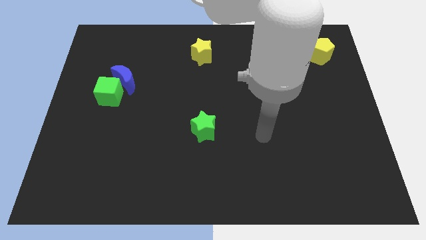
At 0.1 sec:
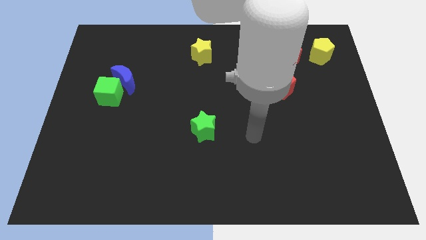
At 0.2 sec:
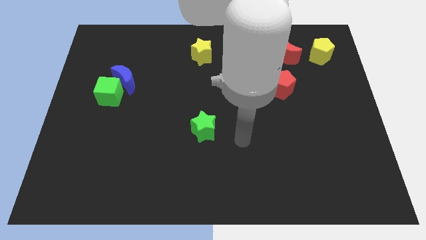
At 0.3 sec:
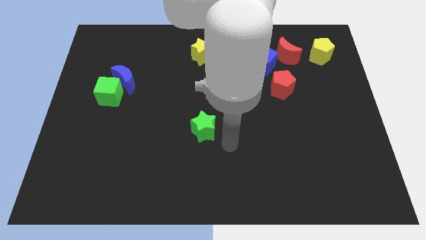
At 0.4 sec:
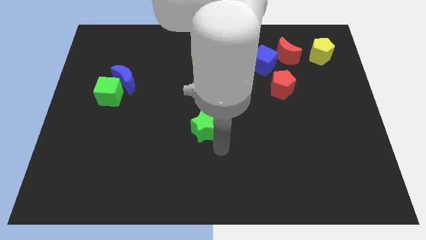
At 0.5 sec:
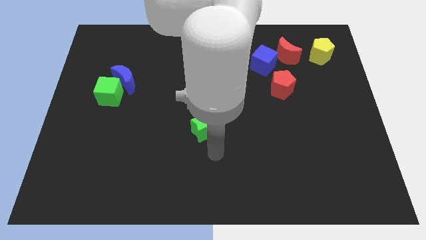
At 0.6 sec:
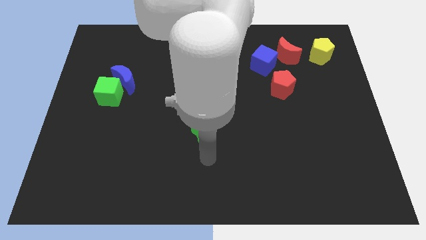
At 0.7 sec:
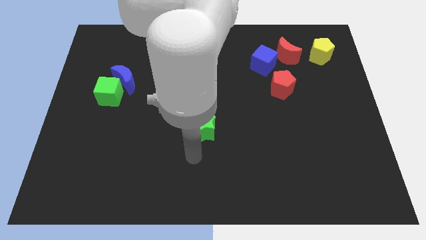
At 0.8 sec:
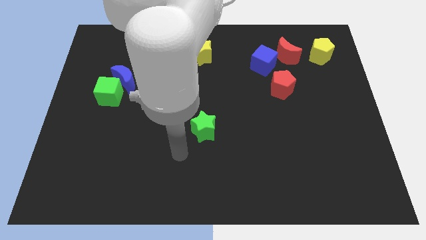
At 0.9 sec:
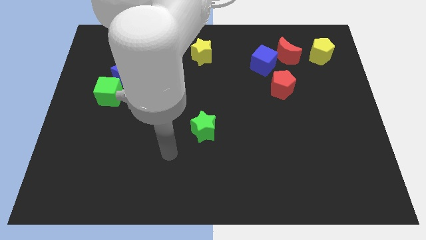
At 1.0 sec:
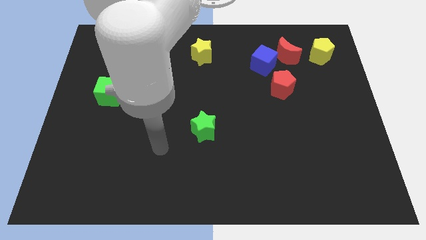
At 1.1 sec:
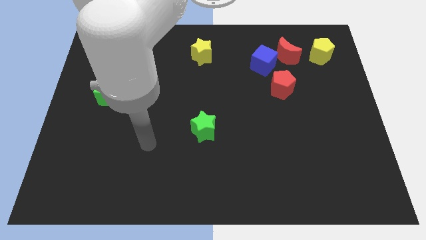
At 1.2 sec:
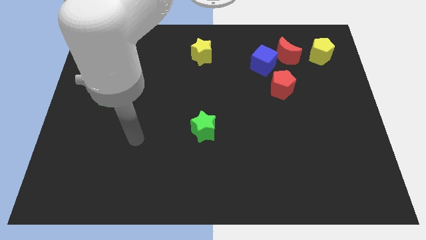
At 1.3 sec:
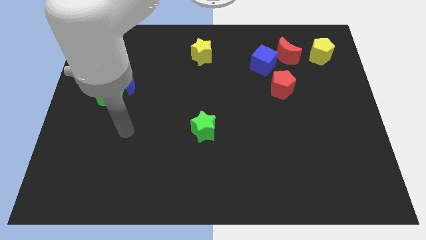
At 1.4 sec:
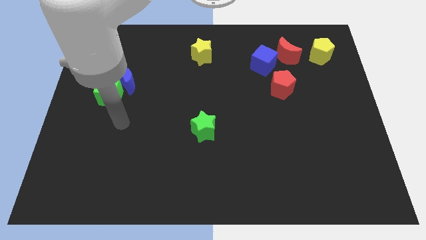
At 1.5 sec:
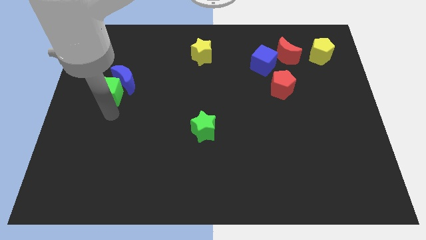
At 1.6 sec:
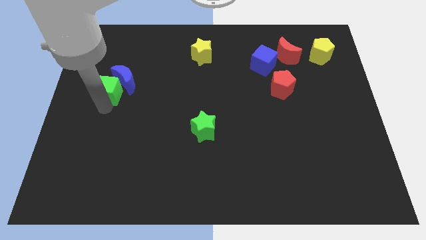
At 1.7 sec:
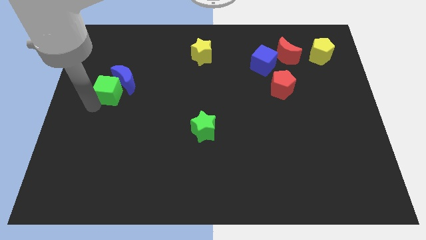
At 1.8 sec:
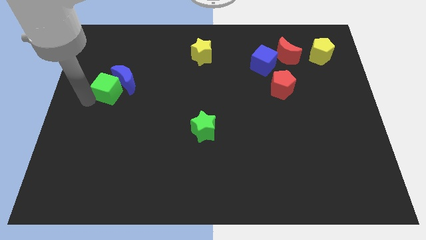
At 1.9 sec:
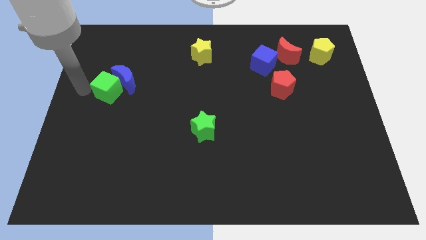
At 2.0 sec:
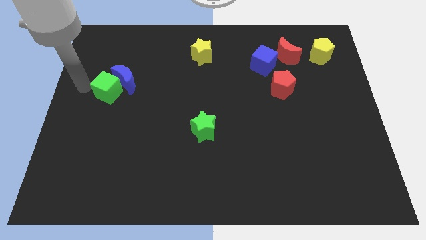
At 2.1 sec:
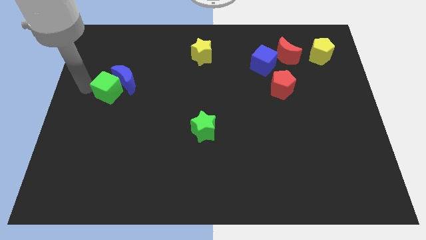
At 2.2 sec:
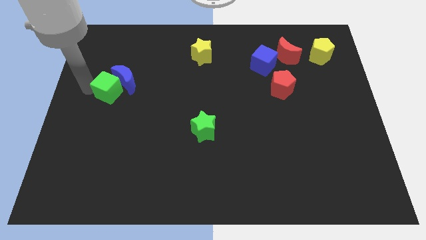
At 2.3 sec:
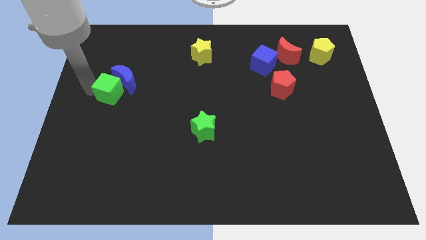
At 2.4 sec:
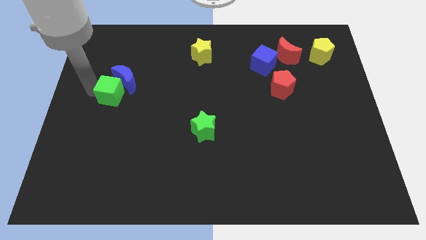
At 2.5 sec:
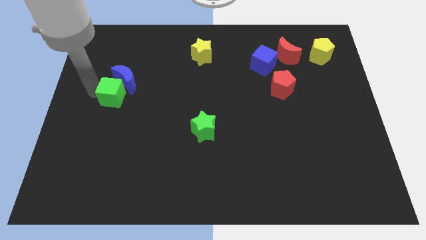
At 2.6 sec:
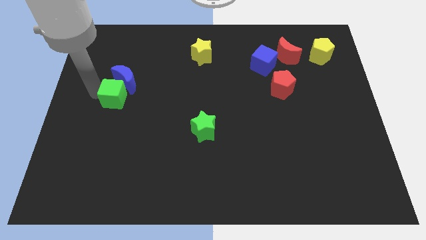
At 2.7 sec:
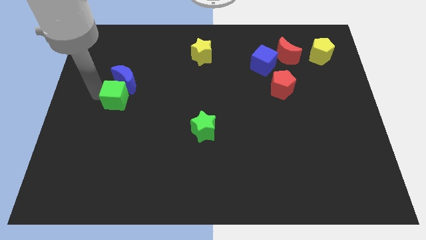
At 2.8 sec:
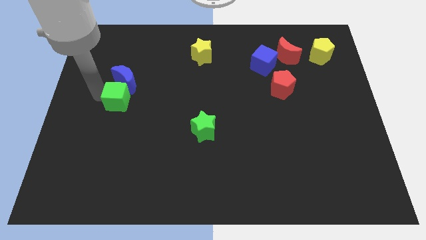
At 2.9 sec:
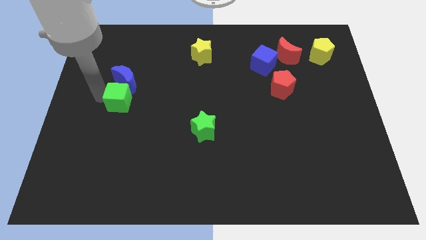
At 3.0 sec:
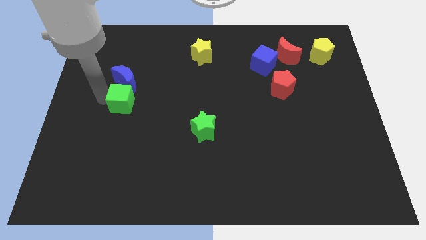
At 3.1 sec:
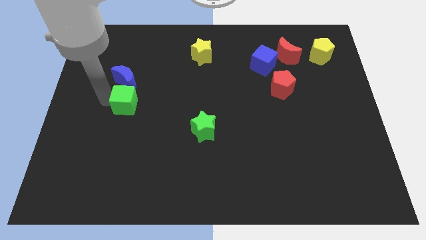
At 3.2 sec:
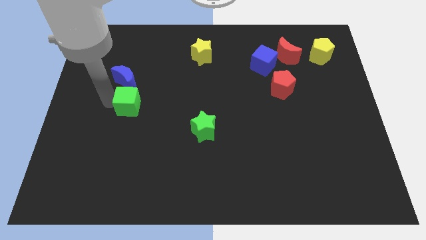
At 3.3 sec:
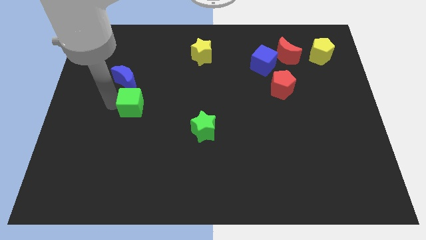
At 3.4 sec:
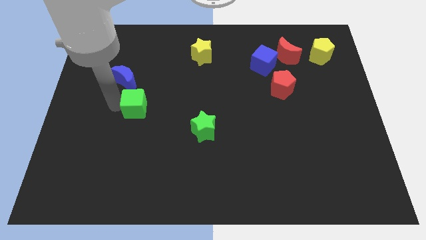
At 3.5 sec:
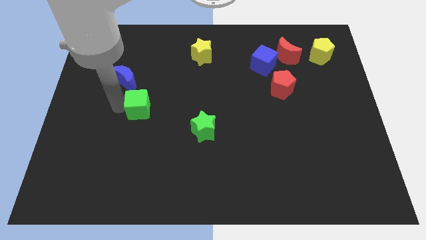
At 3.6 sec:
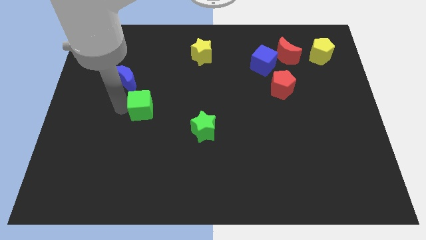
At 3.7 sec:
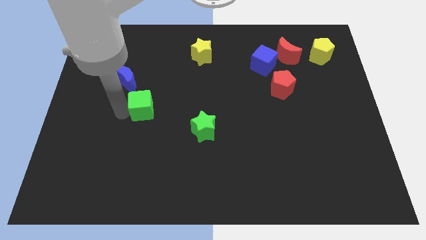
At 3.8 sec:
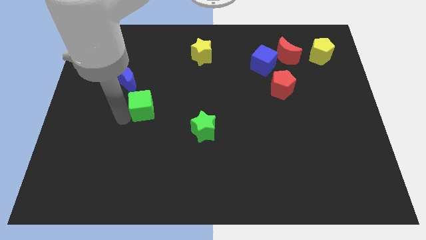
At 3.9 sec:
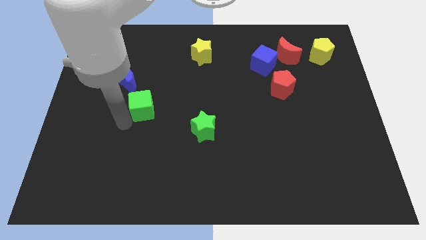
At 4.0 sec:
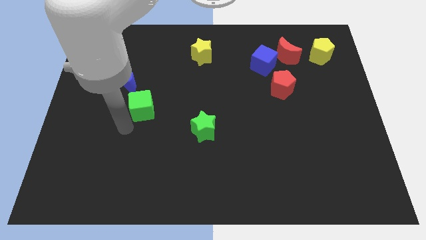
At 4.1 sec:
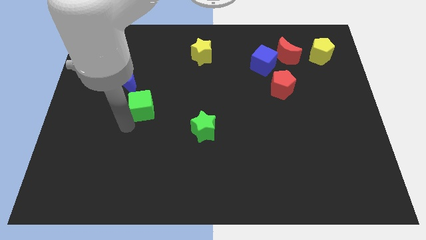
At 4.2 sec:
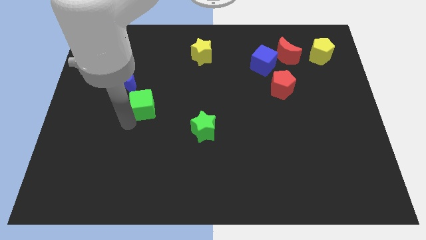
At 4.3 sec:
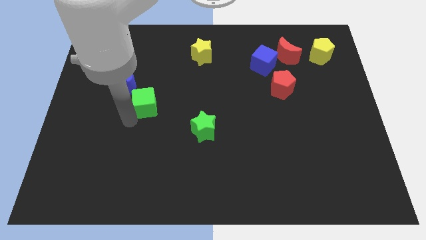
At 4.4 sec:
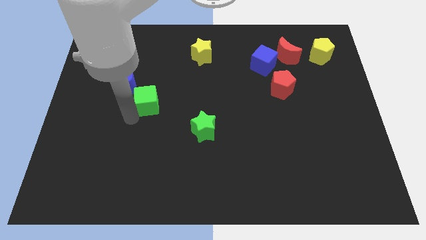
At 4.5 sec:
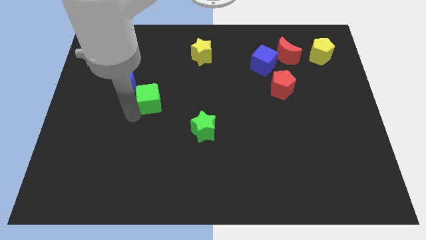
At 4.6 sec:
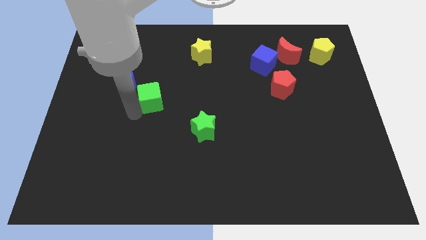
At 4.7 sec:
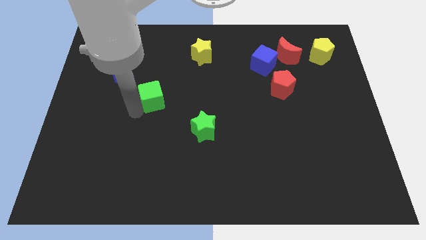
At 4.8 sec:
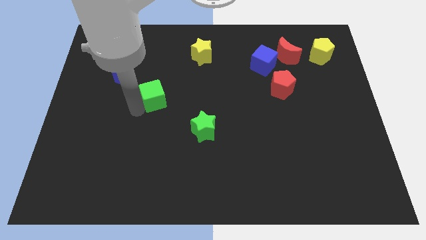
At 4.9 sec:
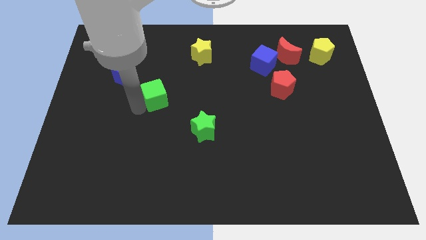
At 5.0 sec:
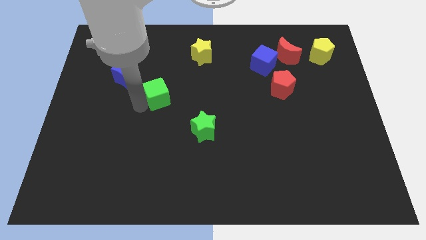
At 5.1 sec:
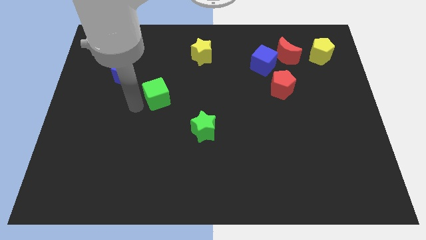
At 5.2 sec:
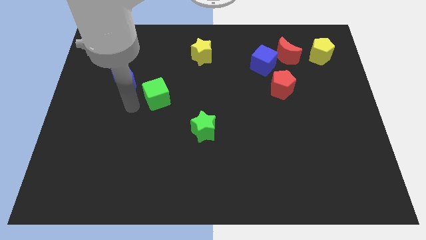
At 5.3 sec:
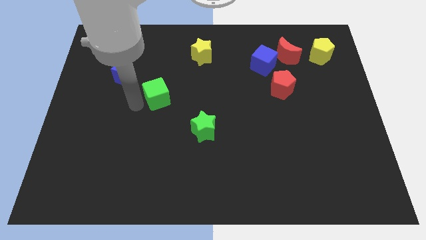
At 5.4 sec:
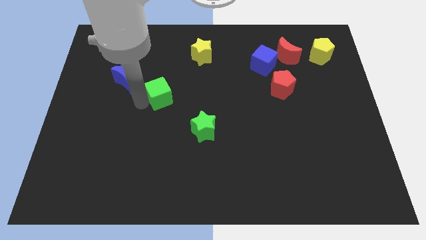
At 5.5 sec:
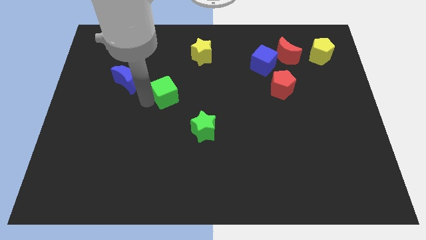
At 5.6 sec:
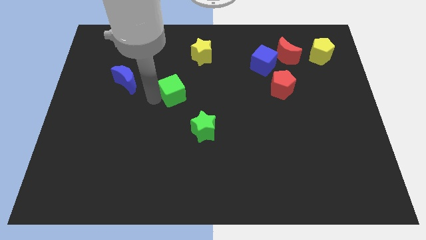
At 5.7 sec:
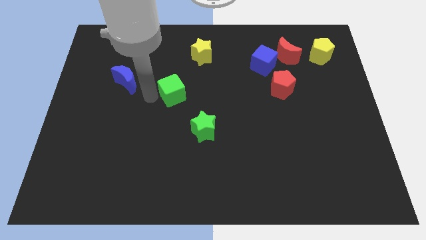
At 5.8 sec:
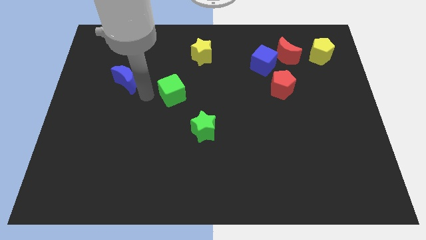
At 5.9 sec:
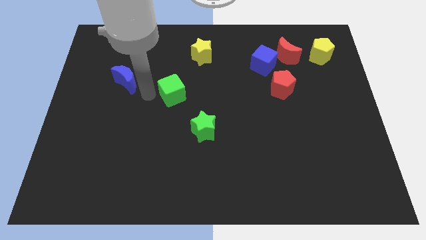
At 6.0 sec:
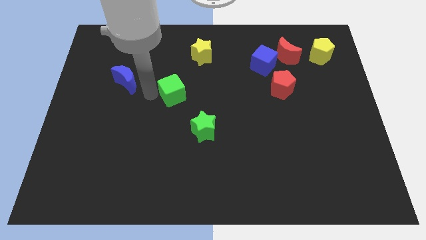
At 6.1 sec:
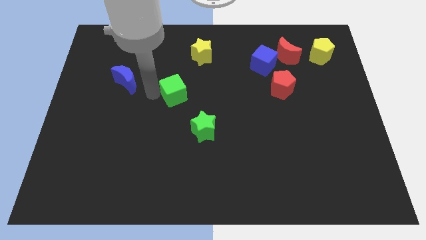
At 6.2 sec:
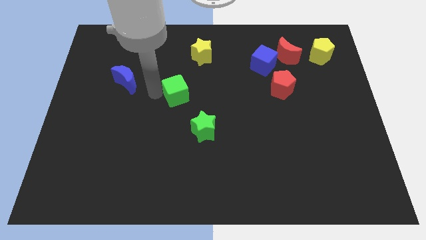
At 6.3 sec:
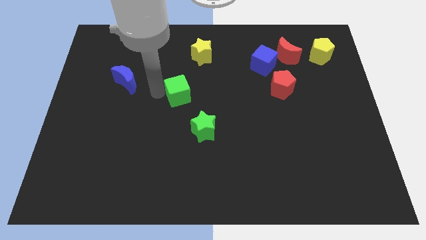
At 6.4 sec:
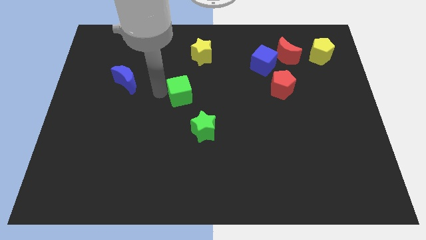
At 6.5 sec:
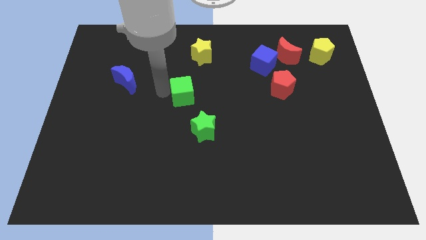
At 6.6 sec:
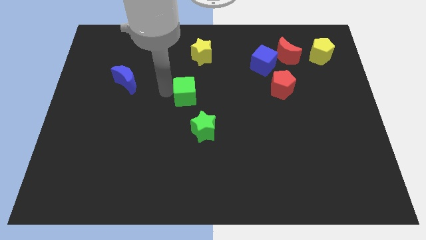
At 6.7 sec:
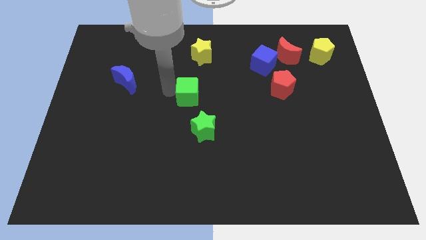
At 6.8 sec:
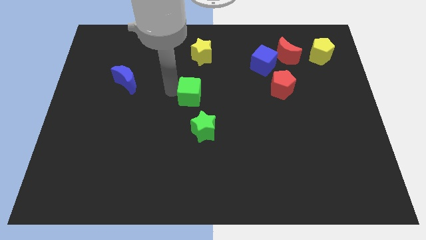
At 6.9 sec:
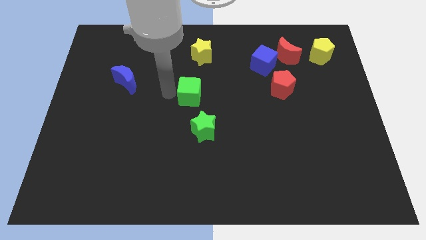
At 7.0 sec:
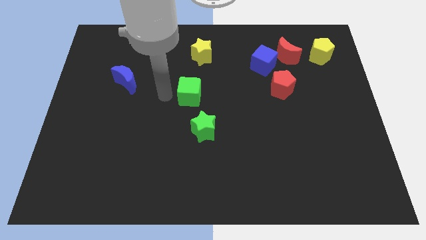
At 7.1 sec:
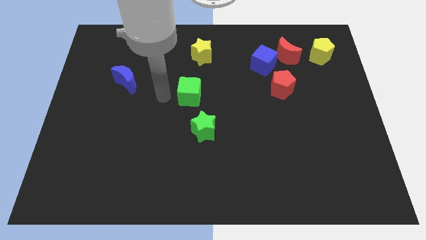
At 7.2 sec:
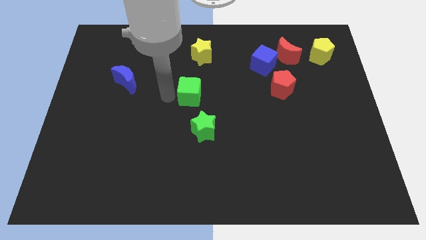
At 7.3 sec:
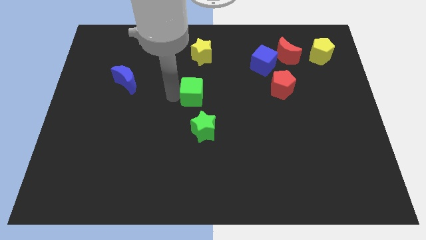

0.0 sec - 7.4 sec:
move the green cube right

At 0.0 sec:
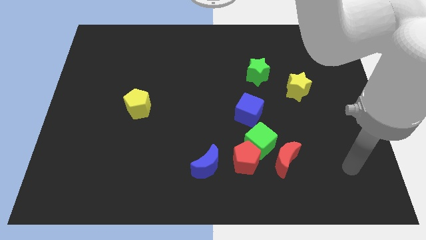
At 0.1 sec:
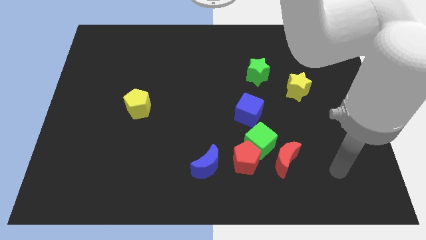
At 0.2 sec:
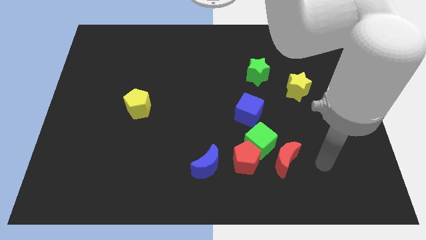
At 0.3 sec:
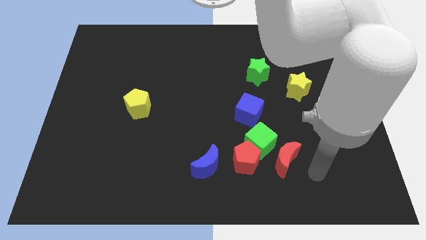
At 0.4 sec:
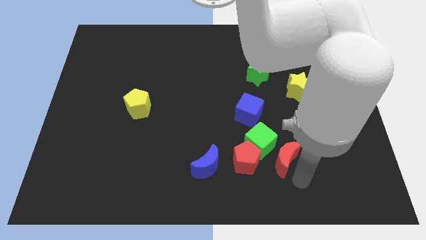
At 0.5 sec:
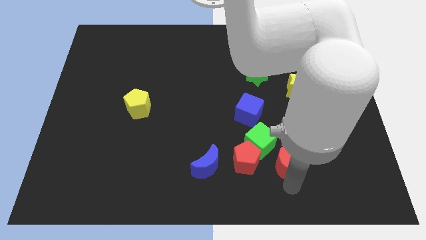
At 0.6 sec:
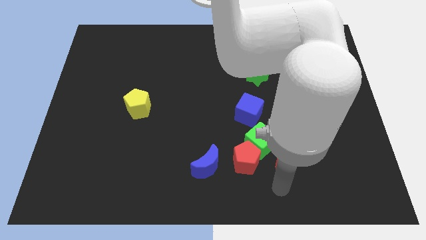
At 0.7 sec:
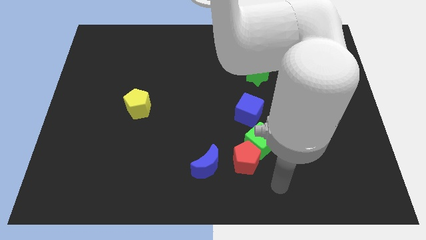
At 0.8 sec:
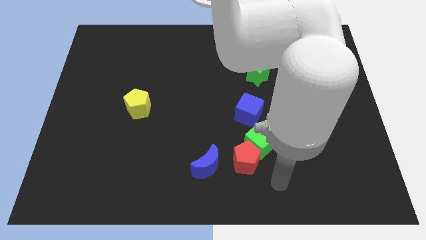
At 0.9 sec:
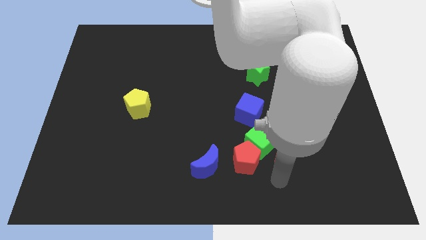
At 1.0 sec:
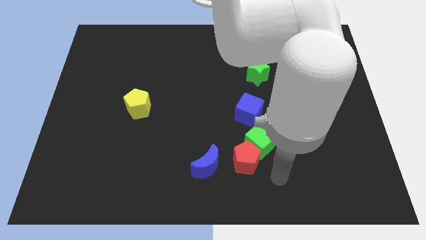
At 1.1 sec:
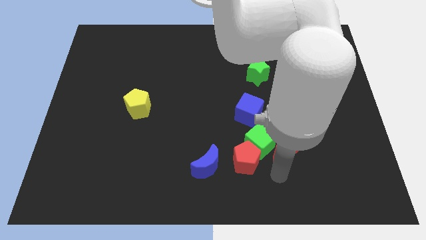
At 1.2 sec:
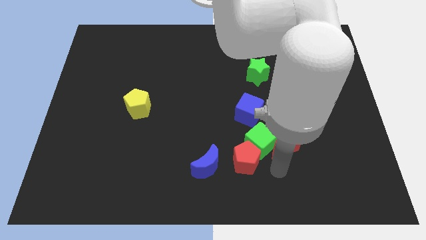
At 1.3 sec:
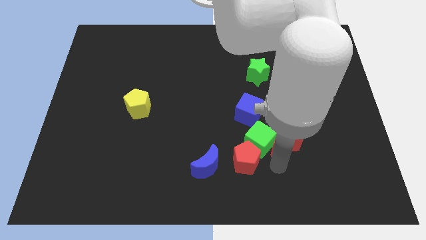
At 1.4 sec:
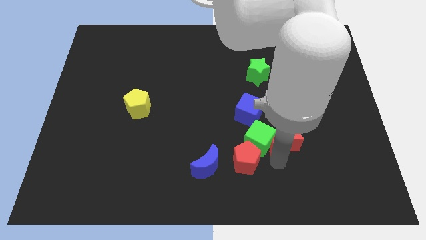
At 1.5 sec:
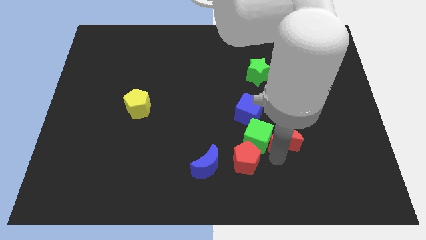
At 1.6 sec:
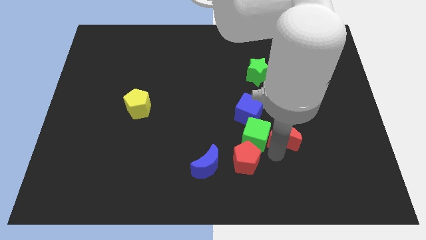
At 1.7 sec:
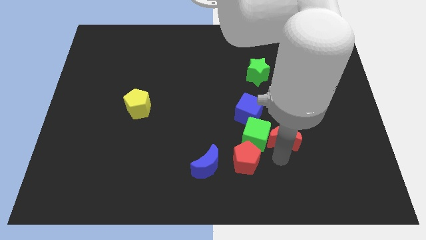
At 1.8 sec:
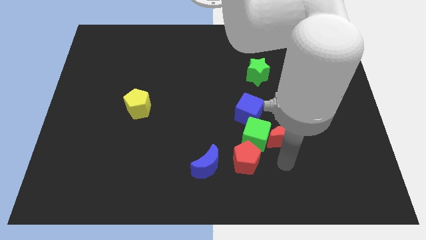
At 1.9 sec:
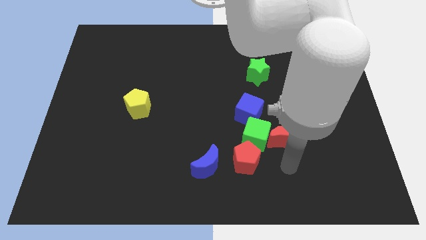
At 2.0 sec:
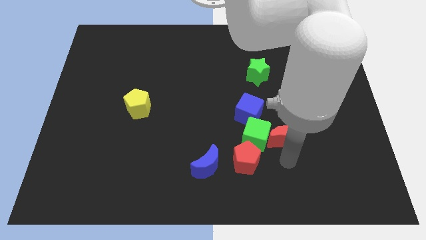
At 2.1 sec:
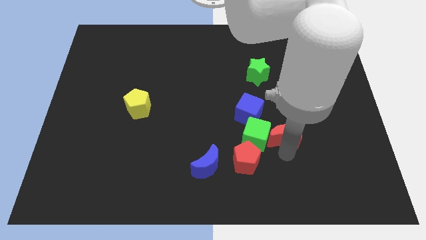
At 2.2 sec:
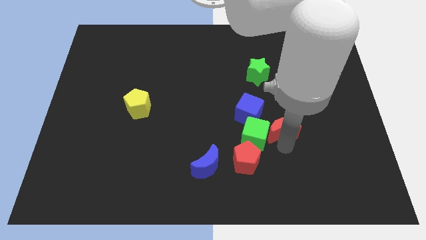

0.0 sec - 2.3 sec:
move the red moon up a little
